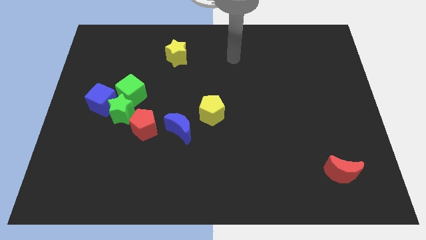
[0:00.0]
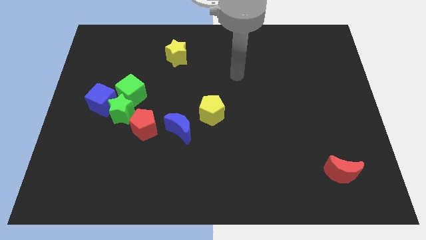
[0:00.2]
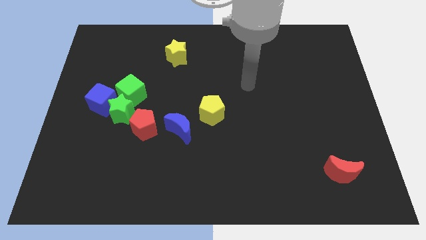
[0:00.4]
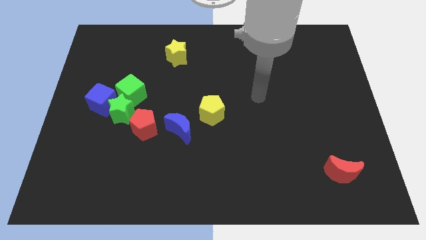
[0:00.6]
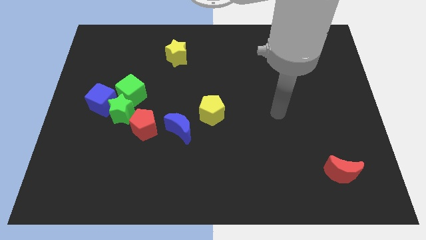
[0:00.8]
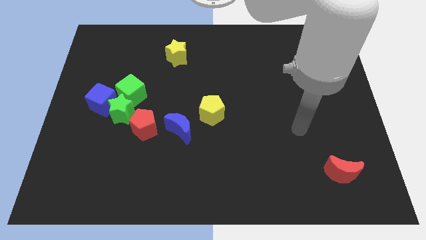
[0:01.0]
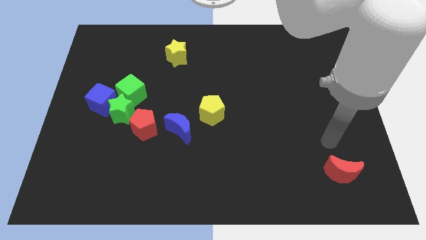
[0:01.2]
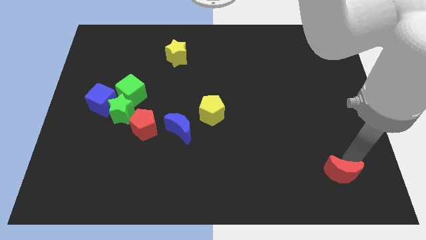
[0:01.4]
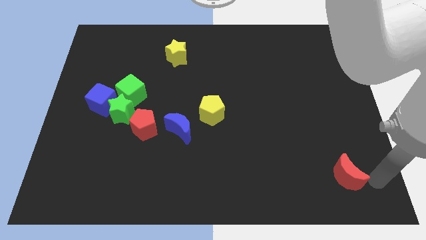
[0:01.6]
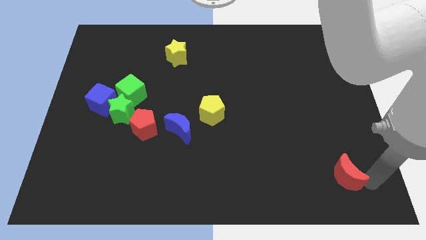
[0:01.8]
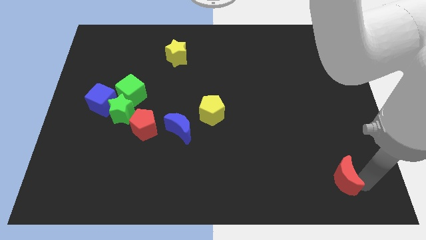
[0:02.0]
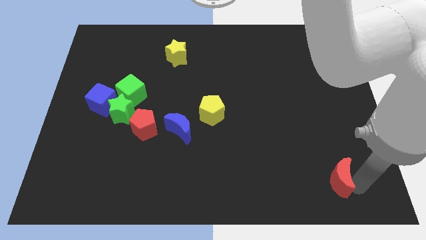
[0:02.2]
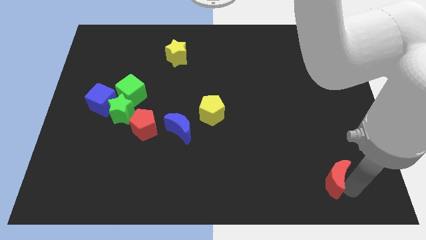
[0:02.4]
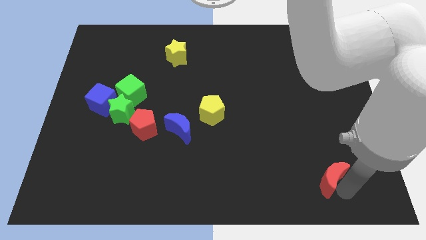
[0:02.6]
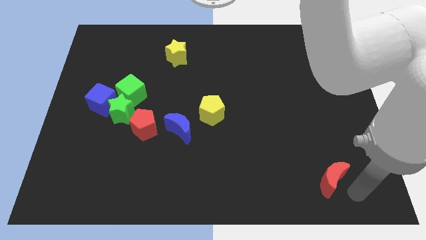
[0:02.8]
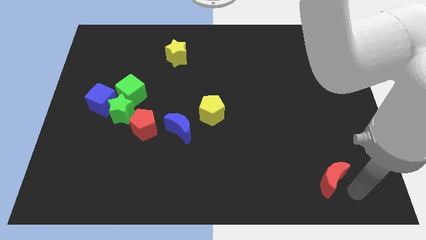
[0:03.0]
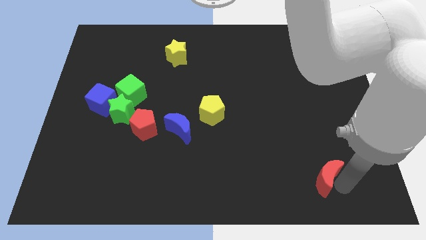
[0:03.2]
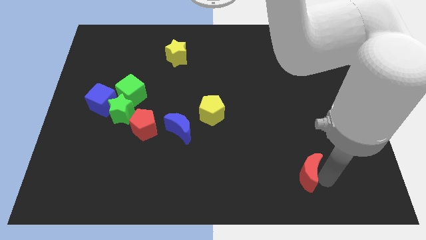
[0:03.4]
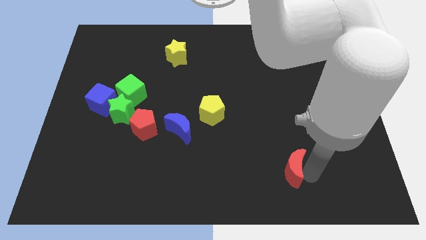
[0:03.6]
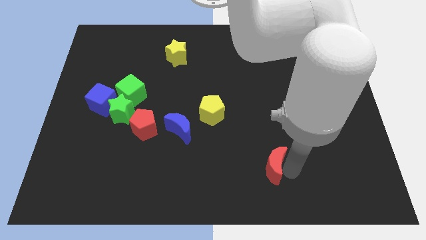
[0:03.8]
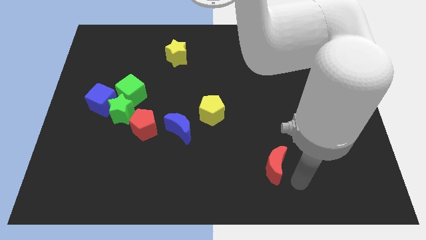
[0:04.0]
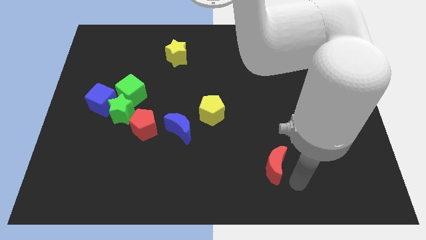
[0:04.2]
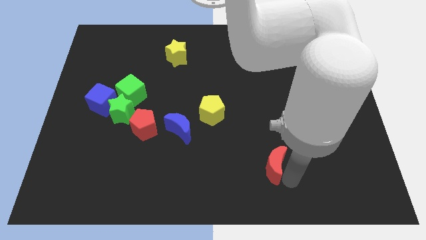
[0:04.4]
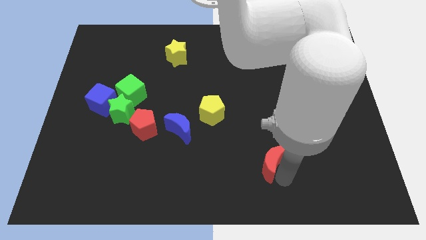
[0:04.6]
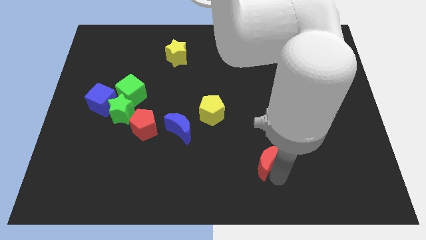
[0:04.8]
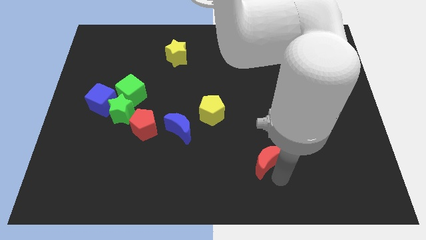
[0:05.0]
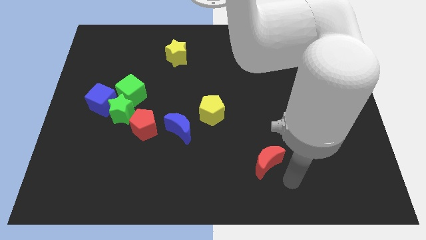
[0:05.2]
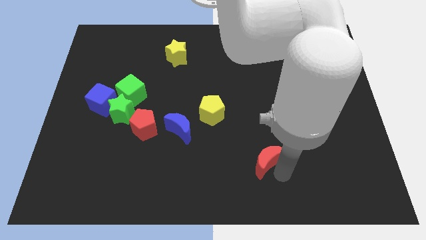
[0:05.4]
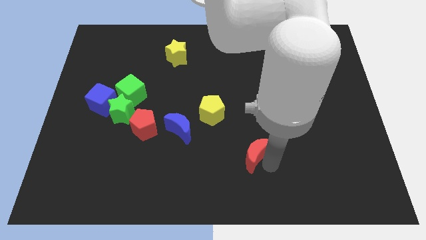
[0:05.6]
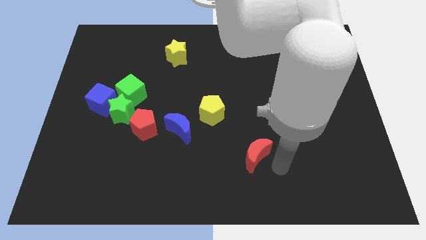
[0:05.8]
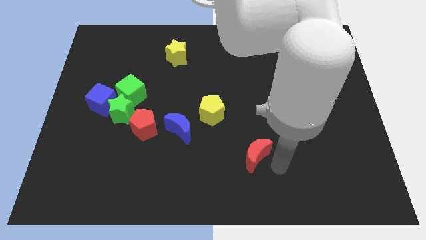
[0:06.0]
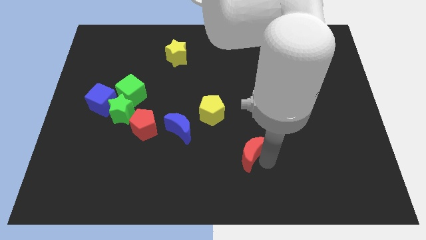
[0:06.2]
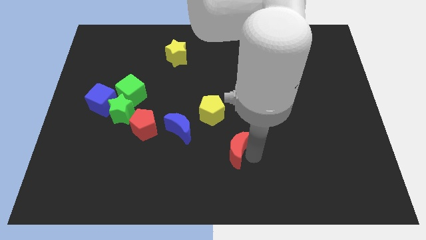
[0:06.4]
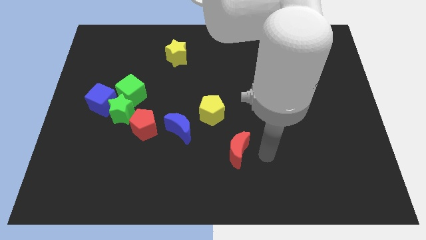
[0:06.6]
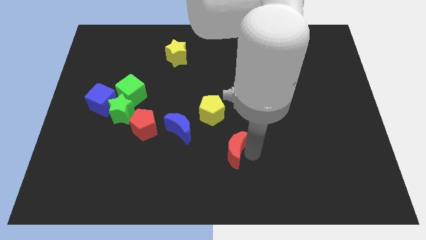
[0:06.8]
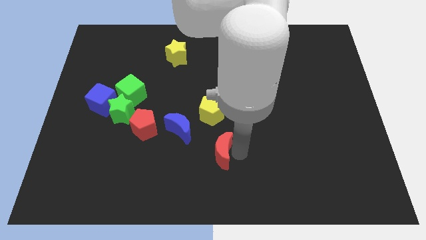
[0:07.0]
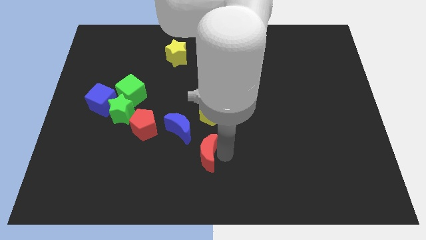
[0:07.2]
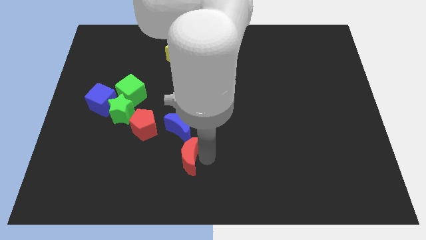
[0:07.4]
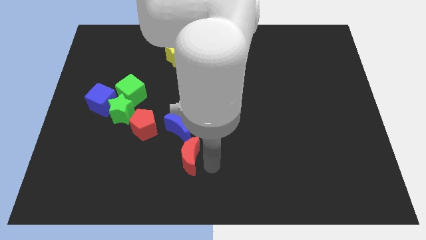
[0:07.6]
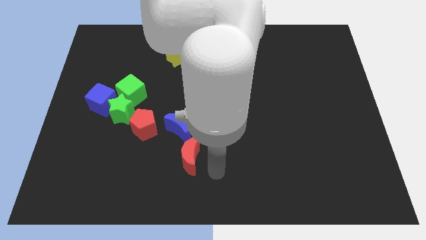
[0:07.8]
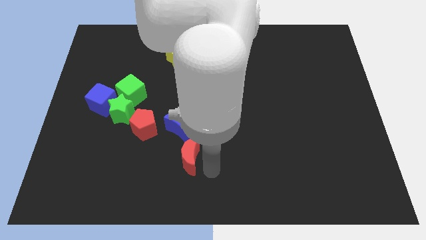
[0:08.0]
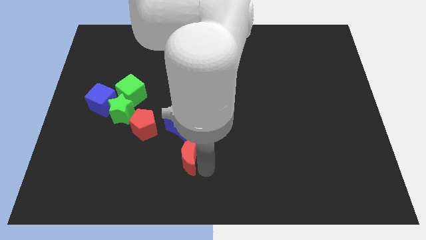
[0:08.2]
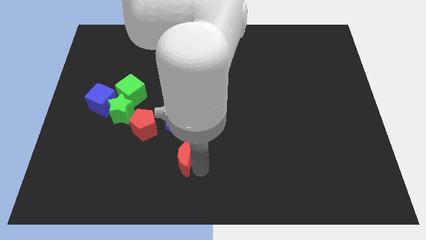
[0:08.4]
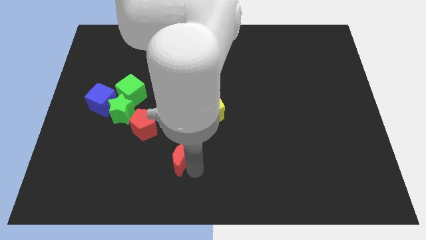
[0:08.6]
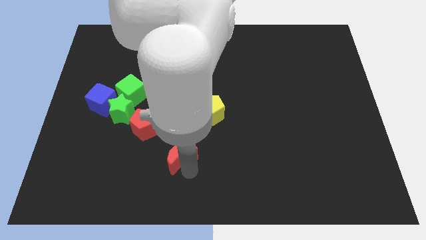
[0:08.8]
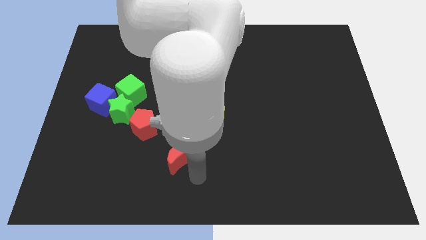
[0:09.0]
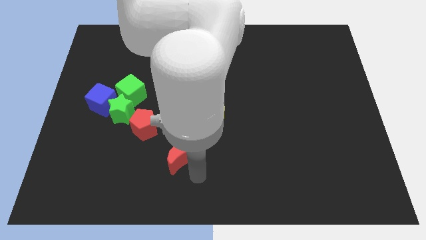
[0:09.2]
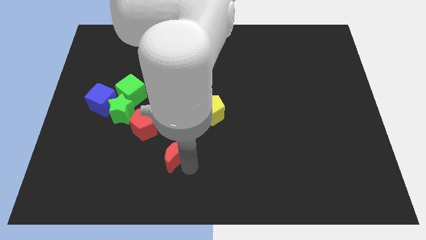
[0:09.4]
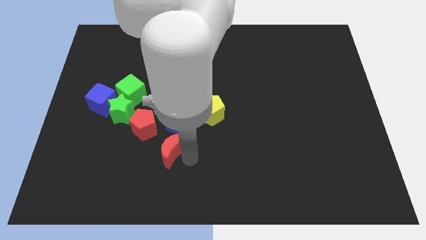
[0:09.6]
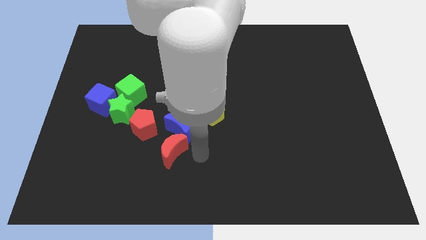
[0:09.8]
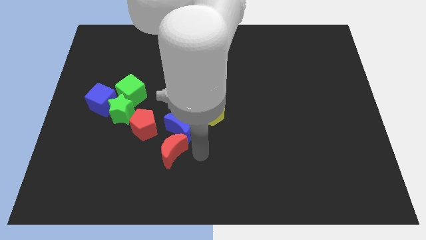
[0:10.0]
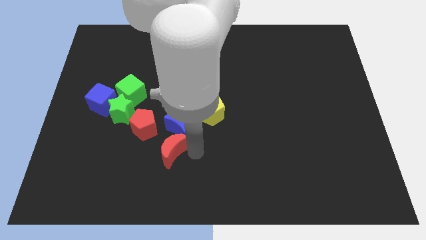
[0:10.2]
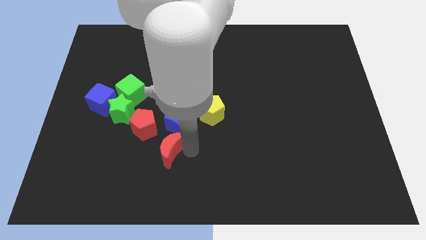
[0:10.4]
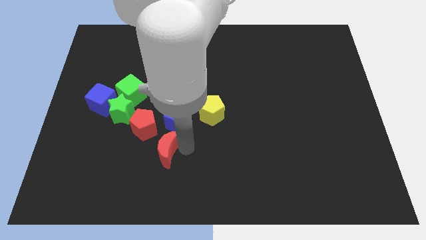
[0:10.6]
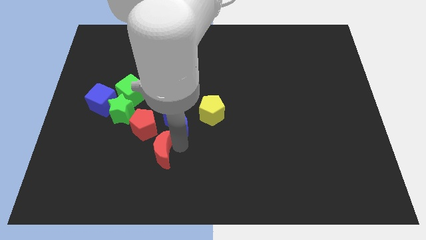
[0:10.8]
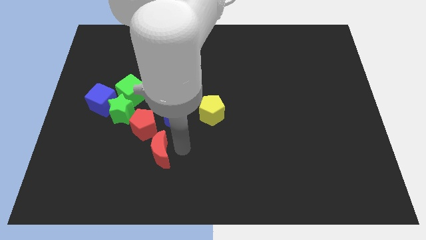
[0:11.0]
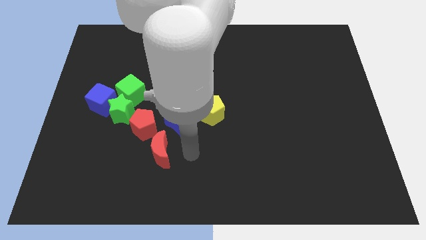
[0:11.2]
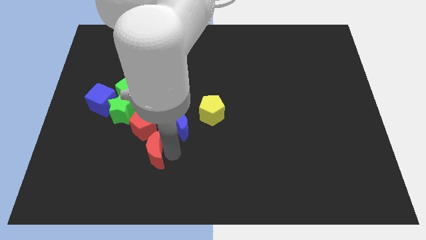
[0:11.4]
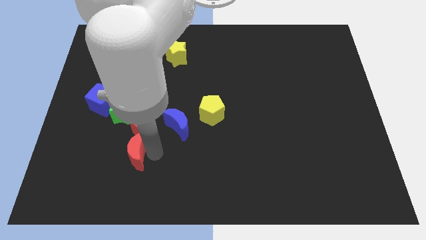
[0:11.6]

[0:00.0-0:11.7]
put the red moon to the bottom of the green star

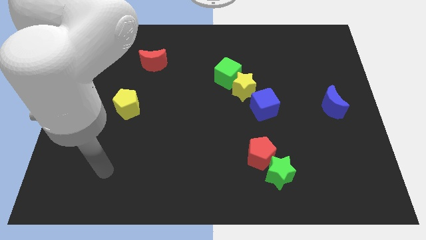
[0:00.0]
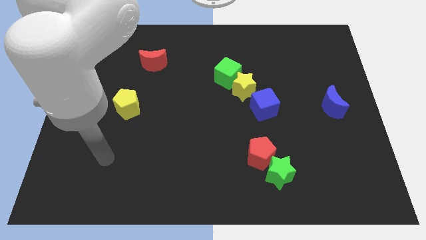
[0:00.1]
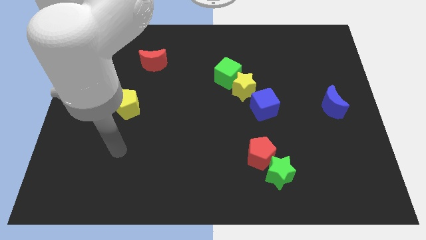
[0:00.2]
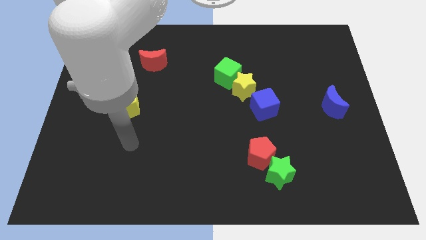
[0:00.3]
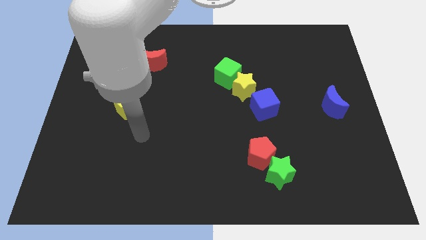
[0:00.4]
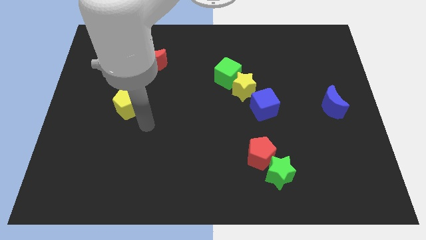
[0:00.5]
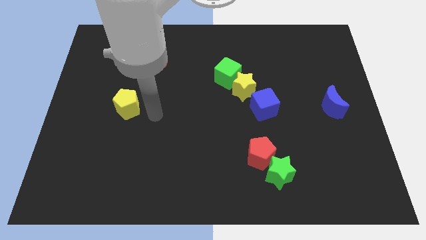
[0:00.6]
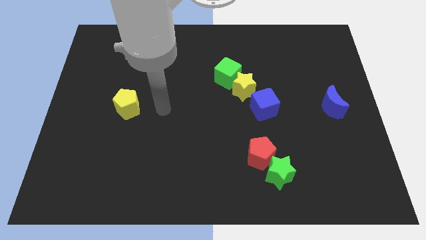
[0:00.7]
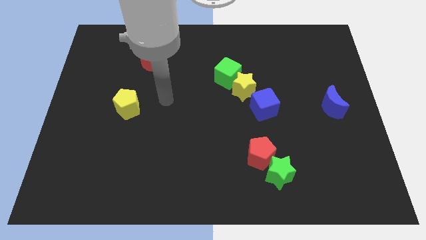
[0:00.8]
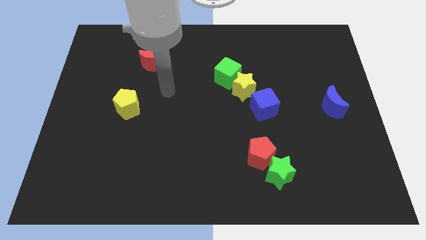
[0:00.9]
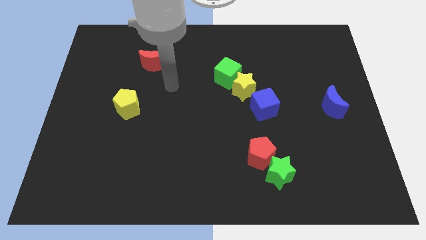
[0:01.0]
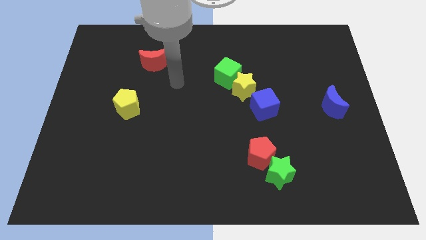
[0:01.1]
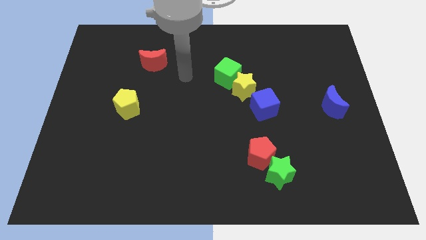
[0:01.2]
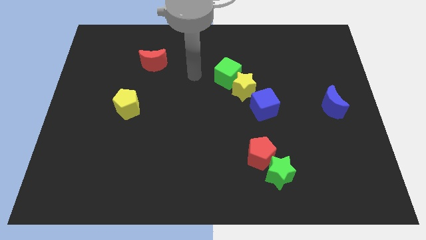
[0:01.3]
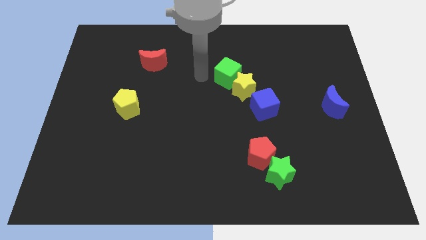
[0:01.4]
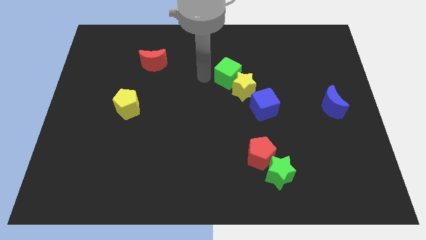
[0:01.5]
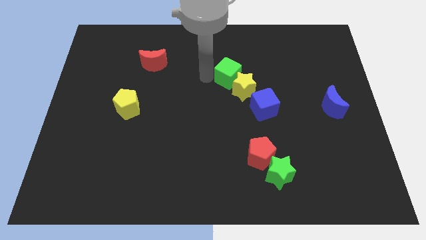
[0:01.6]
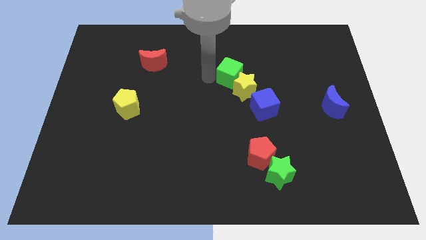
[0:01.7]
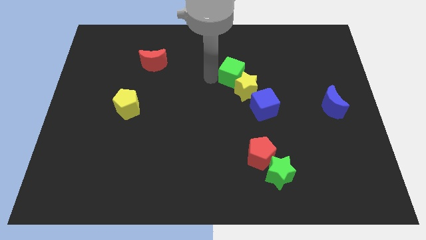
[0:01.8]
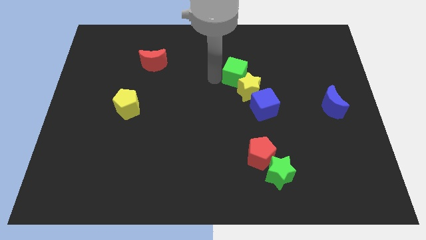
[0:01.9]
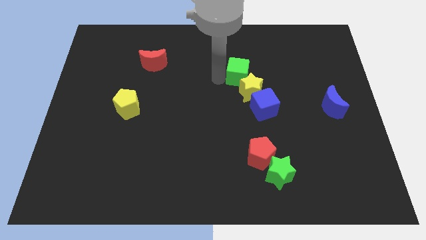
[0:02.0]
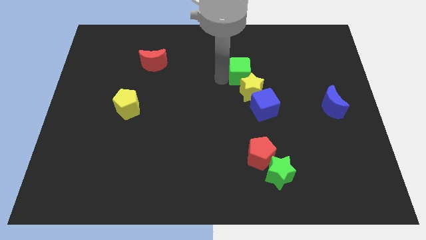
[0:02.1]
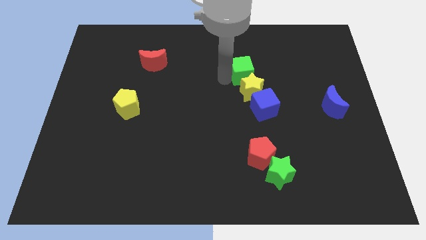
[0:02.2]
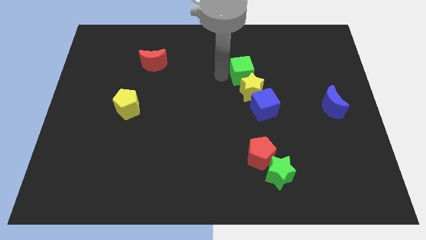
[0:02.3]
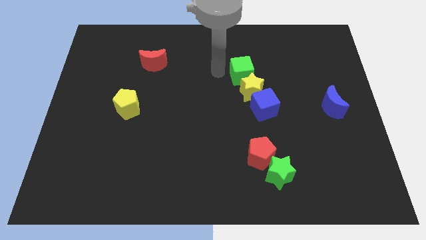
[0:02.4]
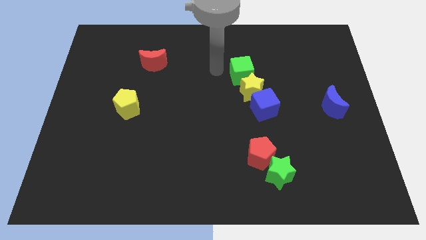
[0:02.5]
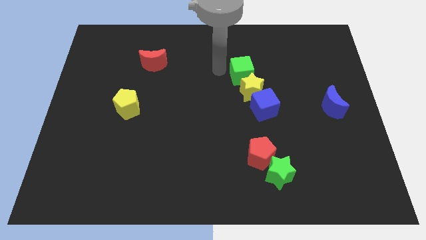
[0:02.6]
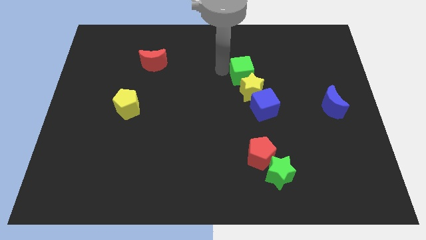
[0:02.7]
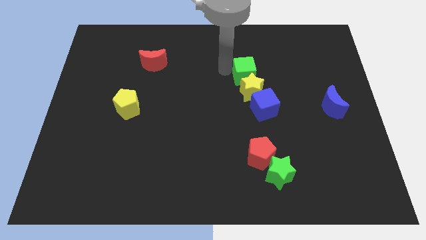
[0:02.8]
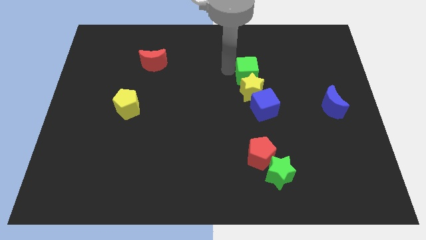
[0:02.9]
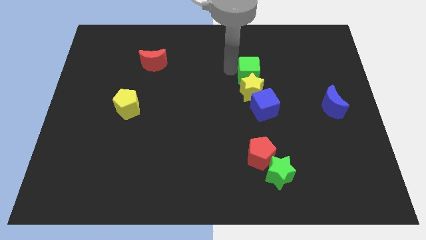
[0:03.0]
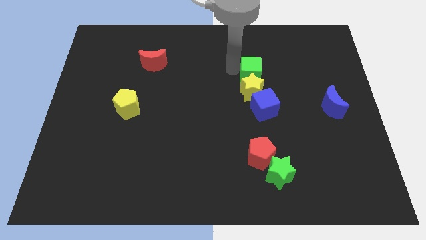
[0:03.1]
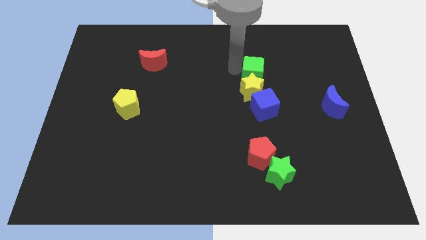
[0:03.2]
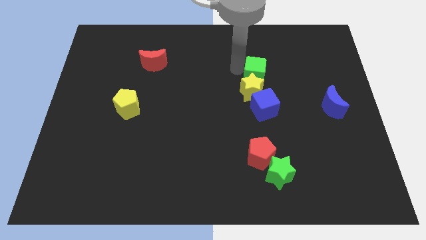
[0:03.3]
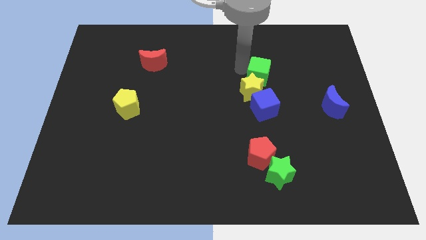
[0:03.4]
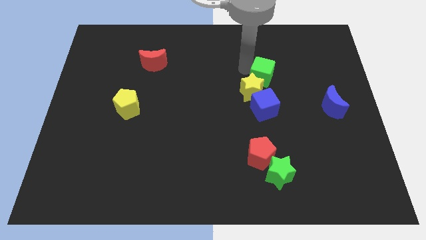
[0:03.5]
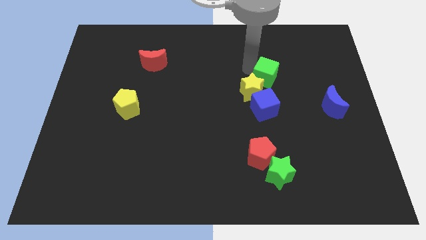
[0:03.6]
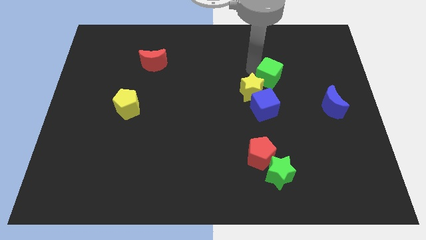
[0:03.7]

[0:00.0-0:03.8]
put the green cube to the right of the yellow star
